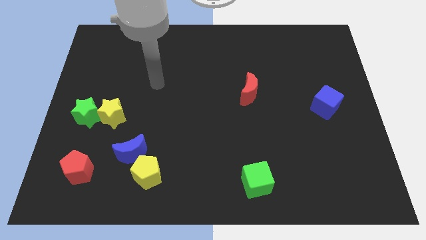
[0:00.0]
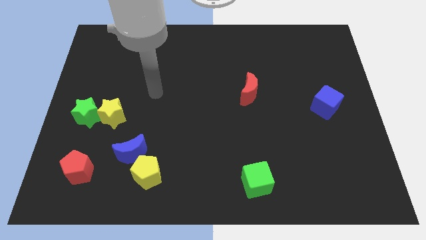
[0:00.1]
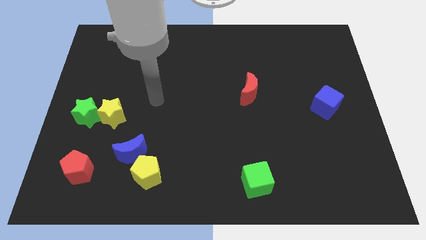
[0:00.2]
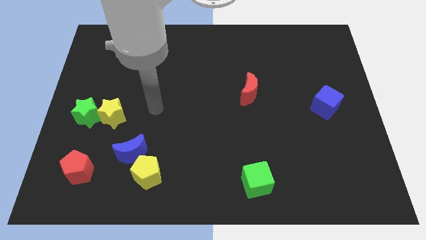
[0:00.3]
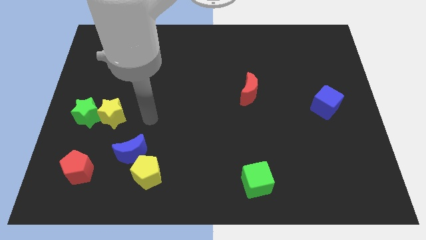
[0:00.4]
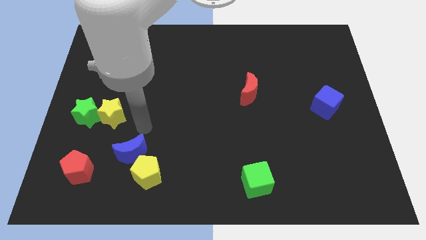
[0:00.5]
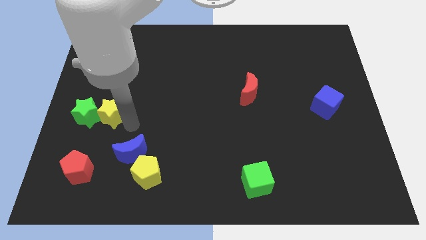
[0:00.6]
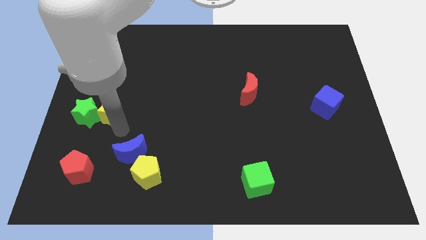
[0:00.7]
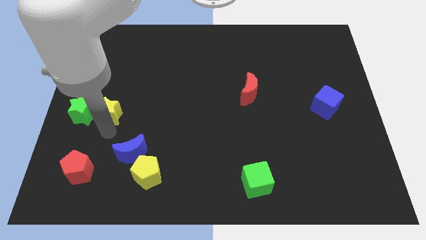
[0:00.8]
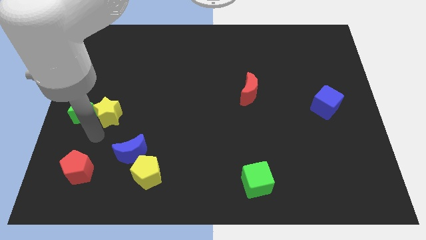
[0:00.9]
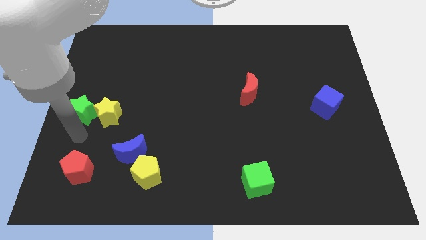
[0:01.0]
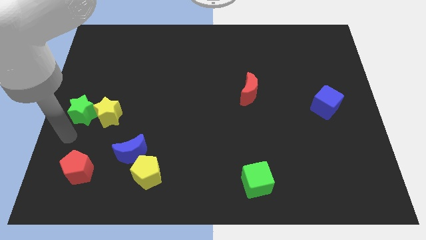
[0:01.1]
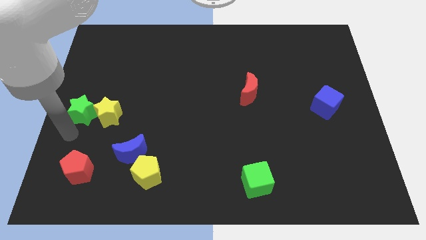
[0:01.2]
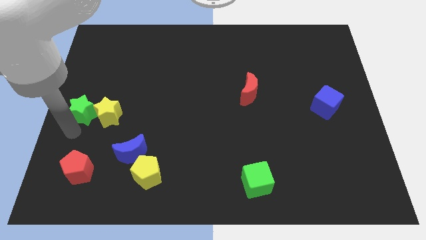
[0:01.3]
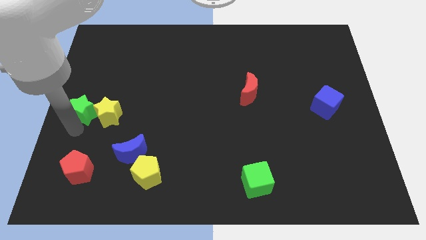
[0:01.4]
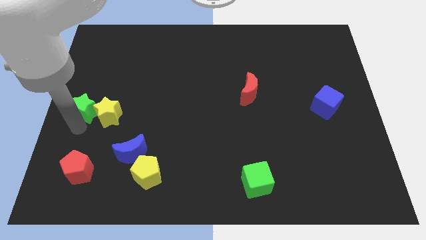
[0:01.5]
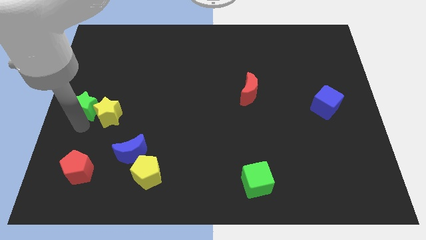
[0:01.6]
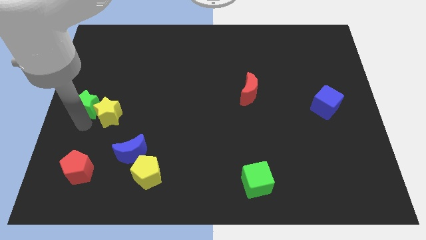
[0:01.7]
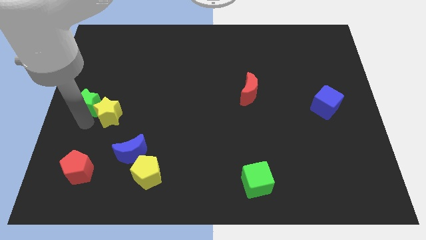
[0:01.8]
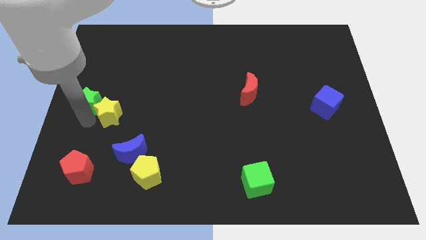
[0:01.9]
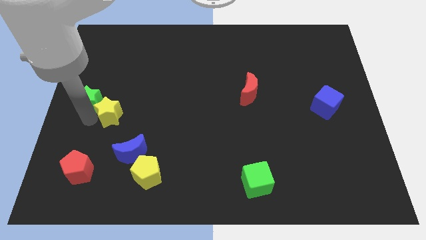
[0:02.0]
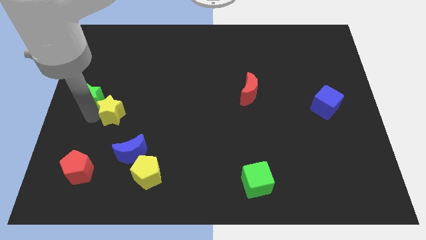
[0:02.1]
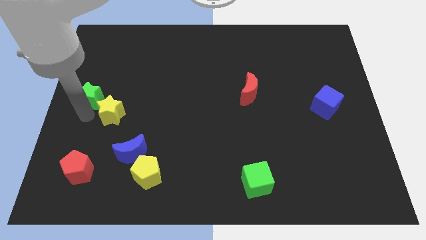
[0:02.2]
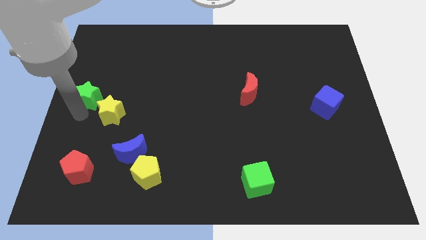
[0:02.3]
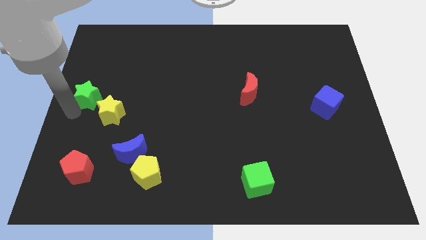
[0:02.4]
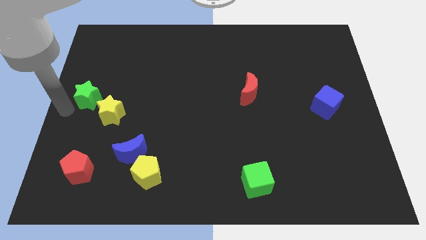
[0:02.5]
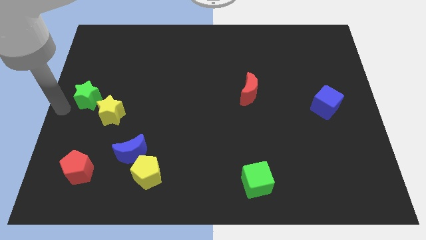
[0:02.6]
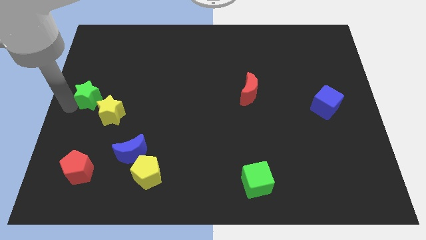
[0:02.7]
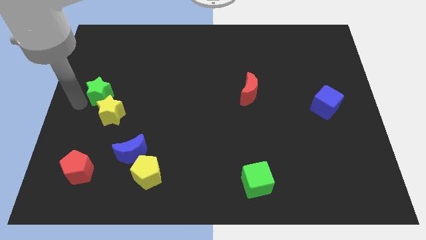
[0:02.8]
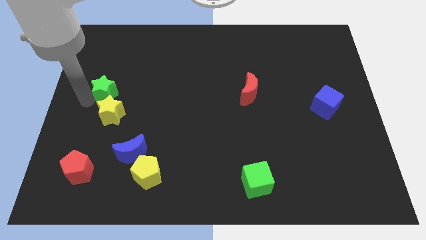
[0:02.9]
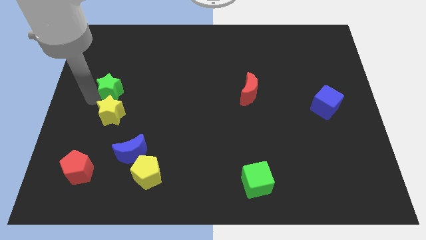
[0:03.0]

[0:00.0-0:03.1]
push the green star a bit up and then right

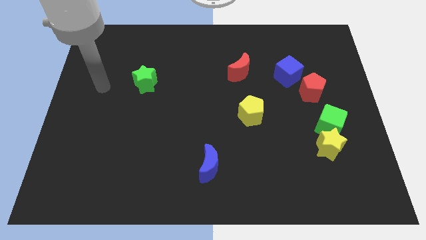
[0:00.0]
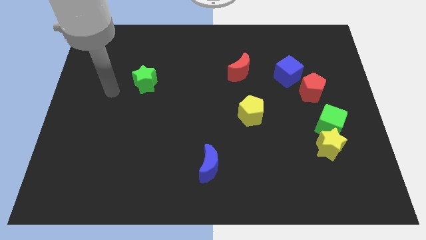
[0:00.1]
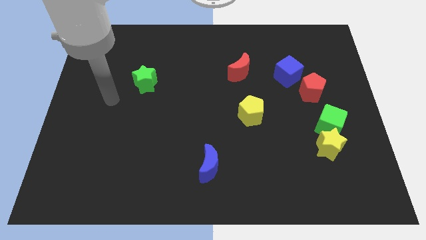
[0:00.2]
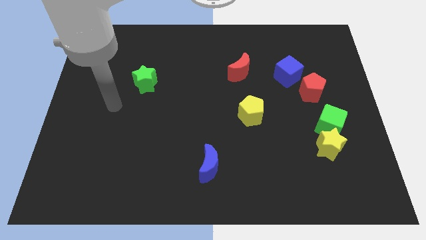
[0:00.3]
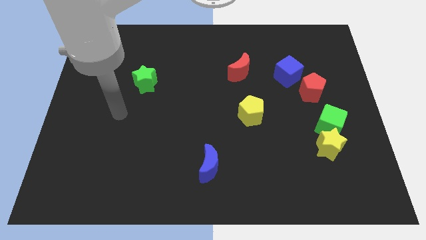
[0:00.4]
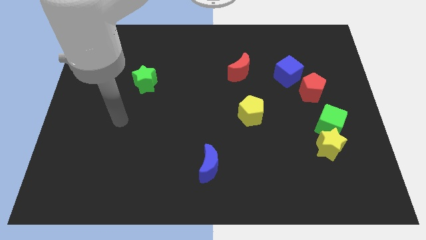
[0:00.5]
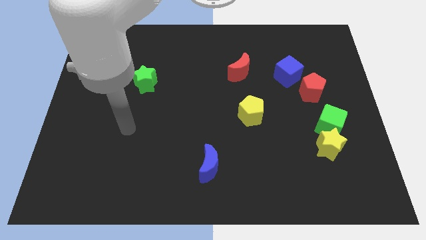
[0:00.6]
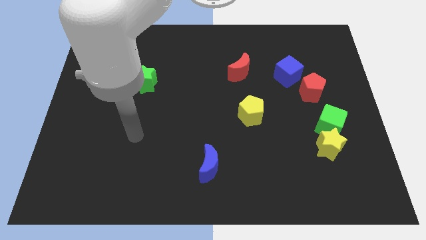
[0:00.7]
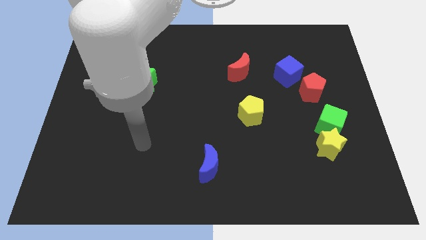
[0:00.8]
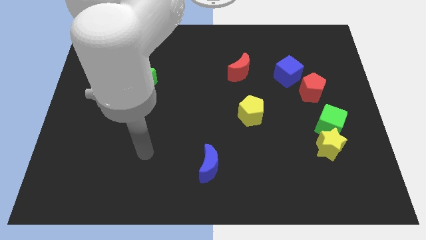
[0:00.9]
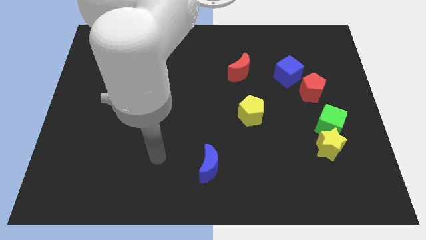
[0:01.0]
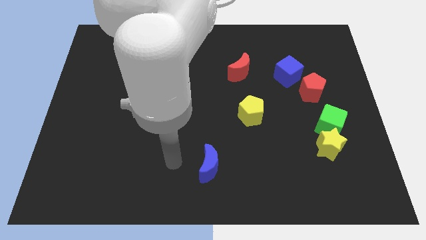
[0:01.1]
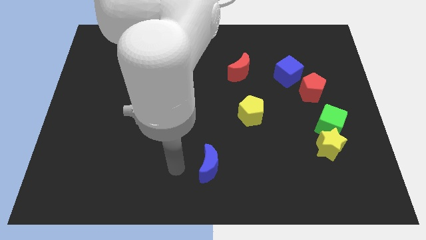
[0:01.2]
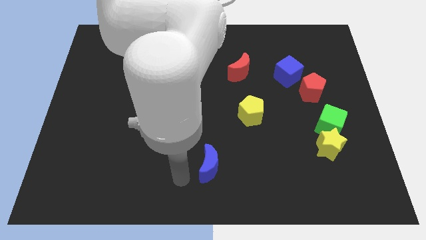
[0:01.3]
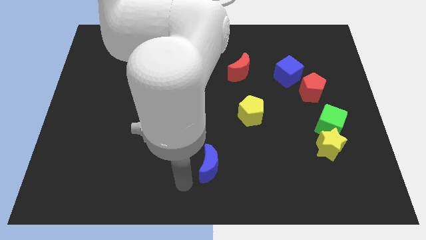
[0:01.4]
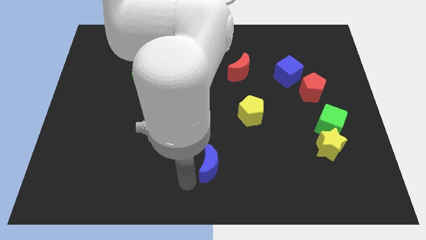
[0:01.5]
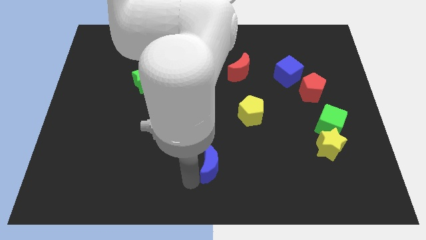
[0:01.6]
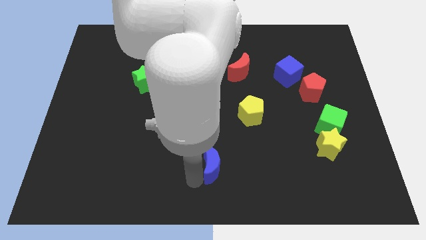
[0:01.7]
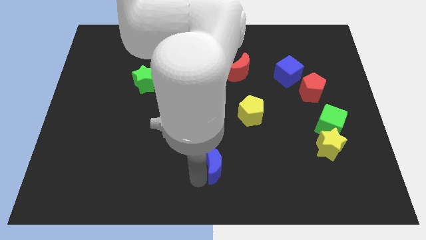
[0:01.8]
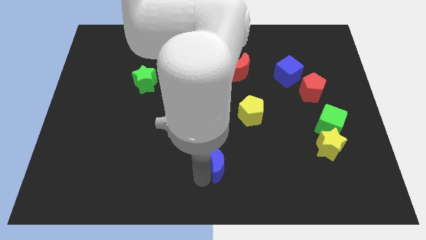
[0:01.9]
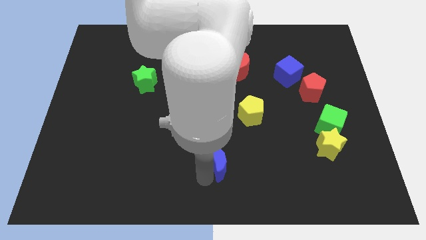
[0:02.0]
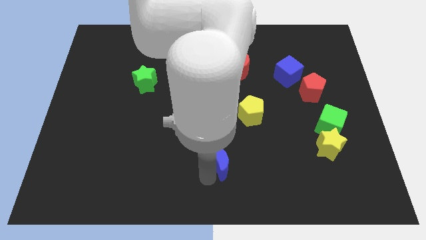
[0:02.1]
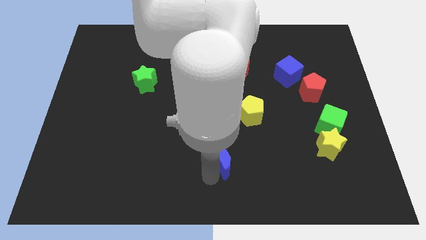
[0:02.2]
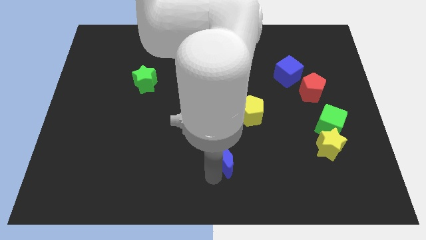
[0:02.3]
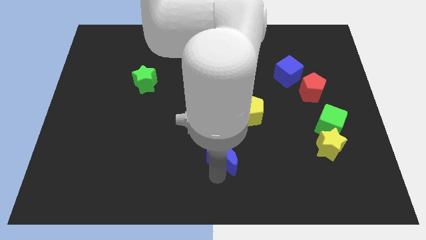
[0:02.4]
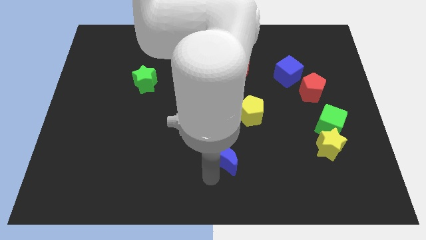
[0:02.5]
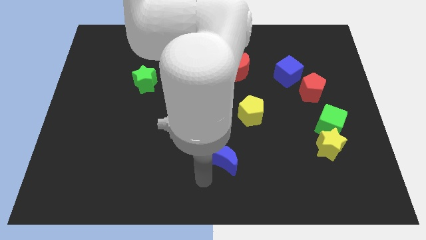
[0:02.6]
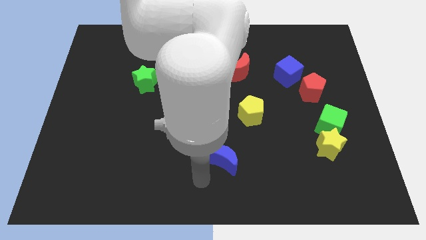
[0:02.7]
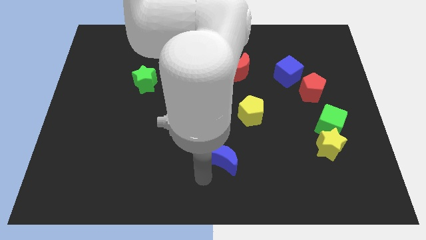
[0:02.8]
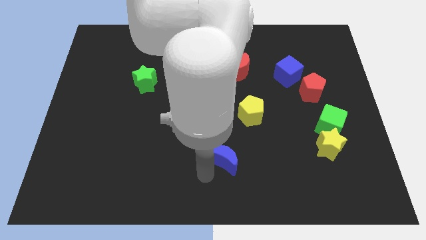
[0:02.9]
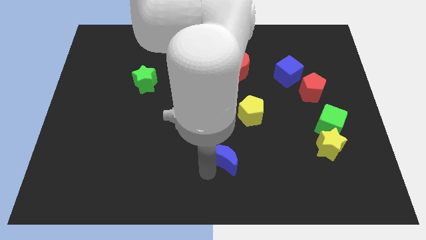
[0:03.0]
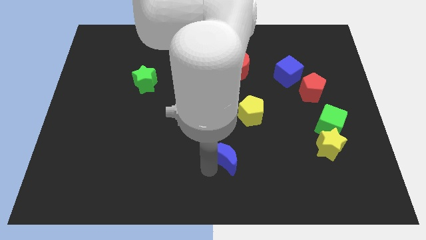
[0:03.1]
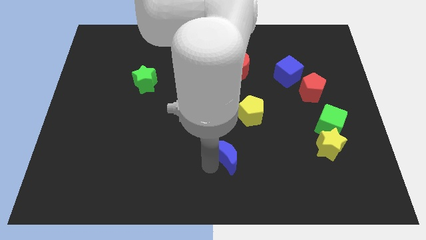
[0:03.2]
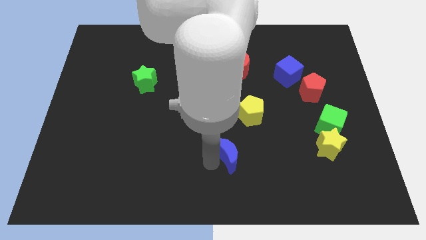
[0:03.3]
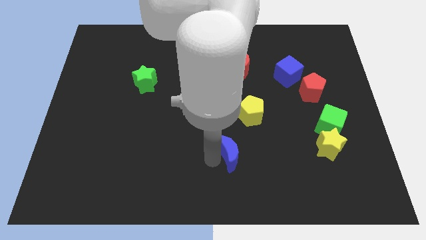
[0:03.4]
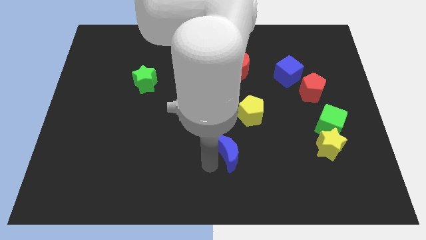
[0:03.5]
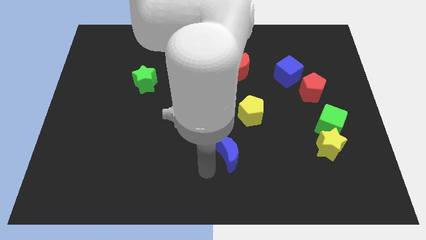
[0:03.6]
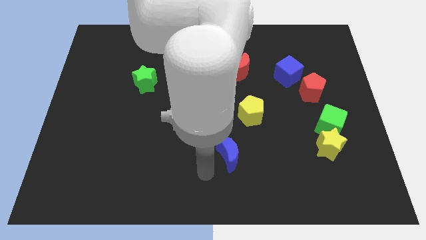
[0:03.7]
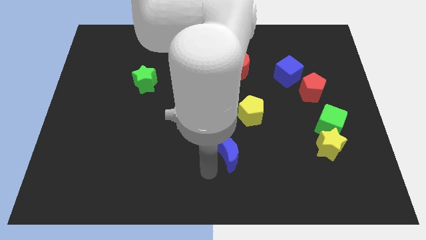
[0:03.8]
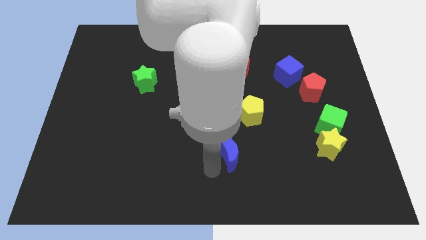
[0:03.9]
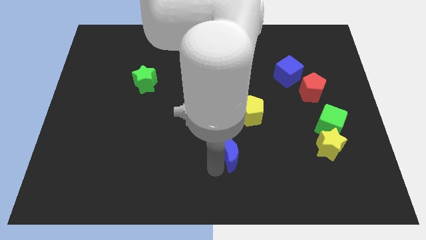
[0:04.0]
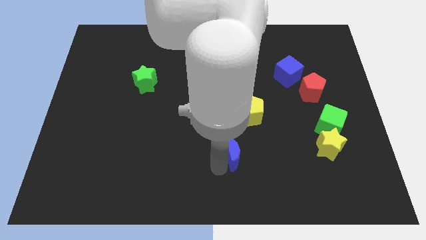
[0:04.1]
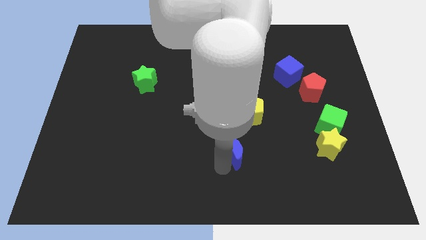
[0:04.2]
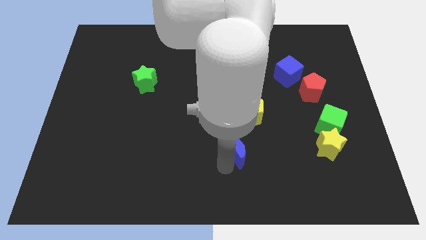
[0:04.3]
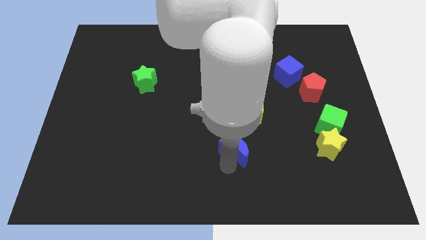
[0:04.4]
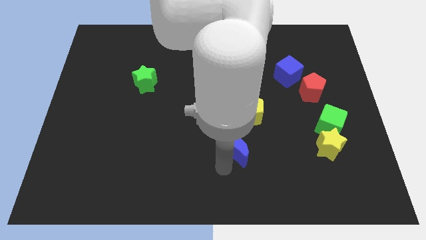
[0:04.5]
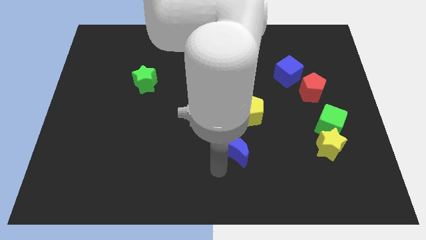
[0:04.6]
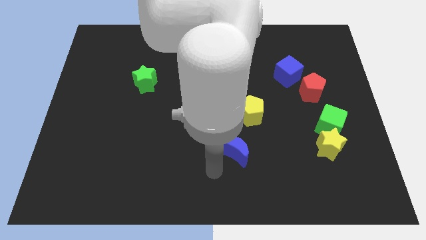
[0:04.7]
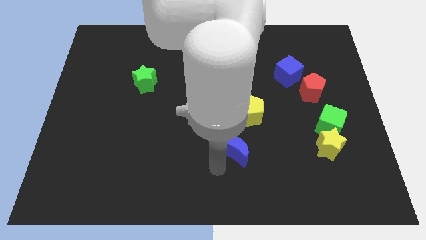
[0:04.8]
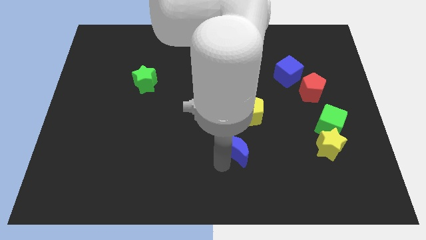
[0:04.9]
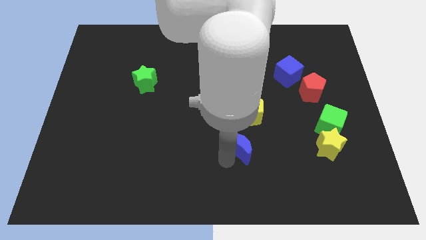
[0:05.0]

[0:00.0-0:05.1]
move the blue moon a bit upwards and then to the right
